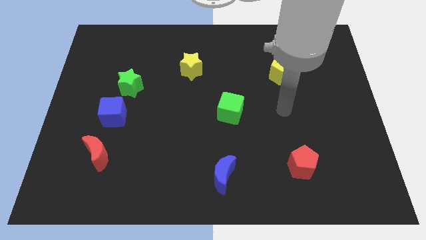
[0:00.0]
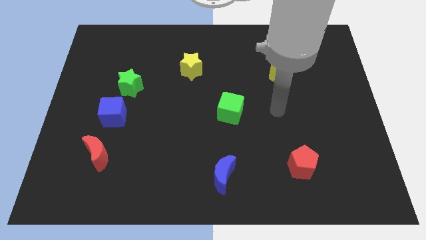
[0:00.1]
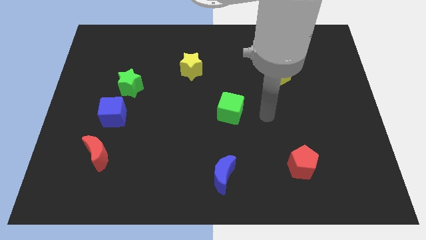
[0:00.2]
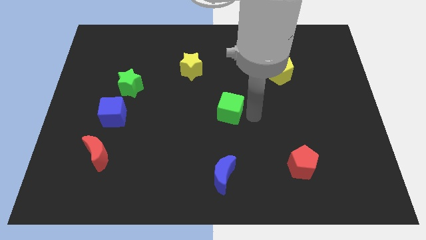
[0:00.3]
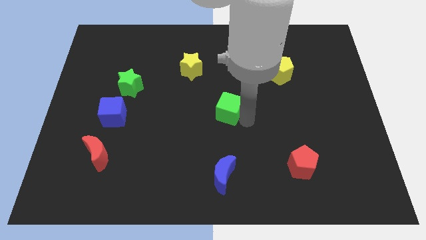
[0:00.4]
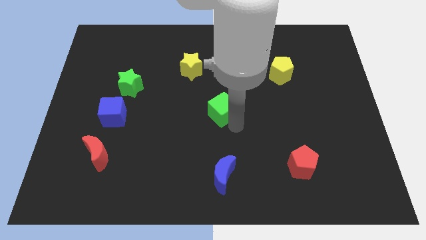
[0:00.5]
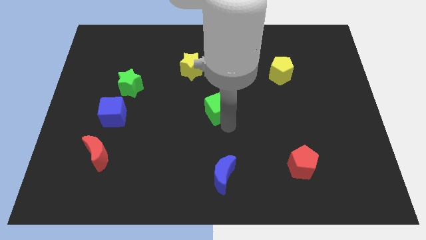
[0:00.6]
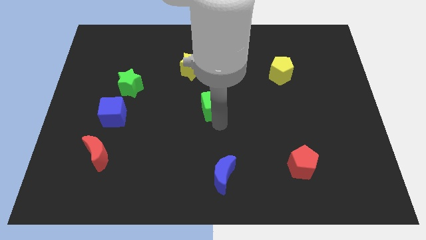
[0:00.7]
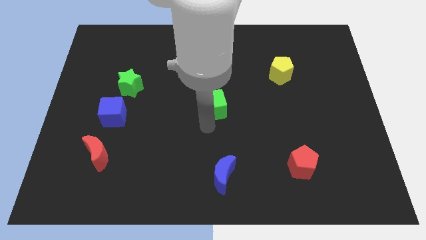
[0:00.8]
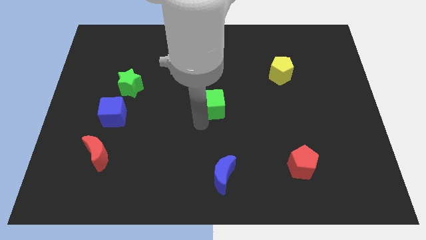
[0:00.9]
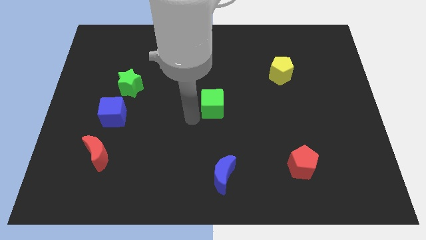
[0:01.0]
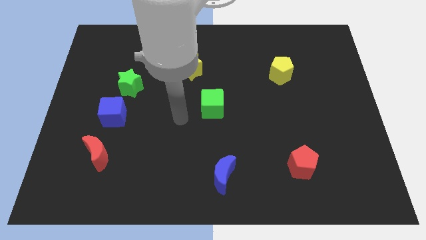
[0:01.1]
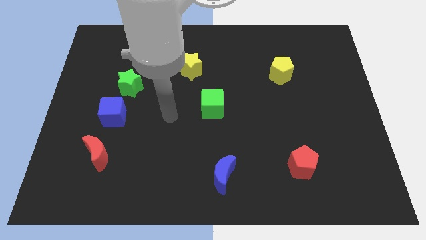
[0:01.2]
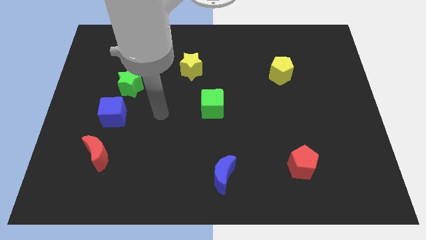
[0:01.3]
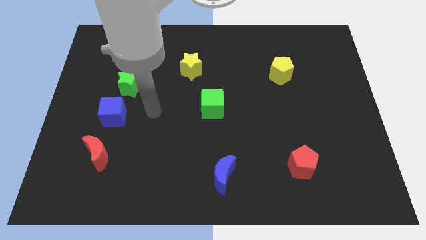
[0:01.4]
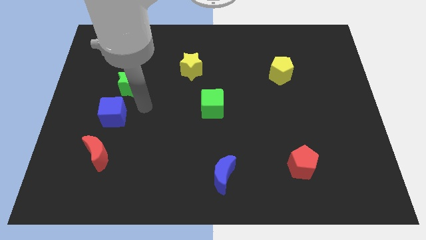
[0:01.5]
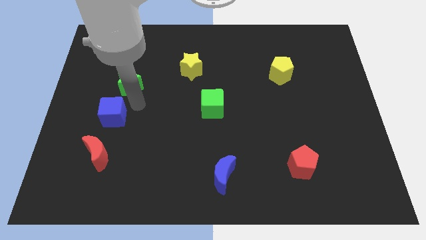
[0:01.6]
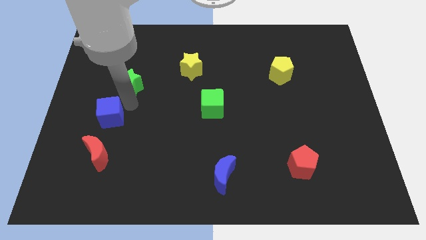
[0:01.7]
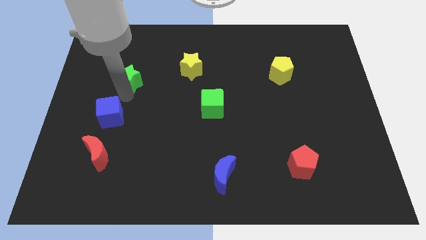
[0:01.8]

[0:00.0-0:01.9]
separate the blue cube from the green star

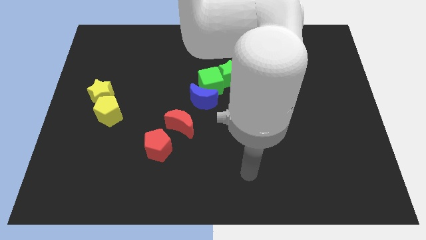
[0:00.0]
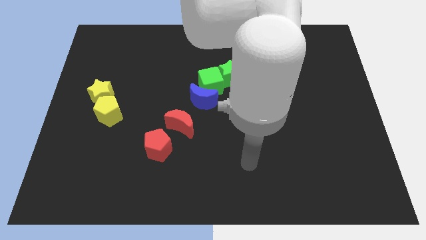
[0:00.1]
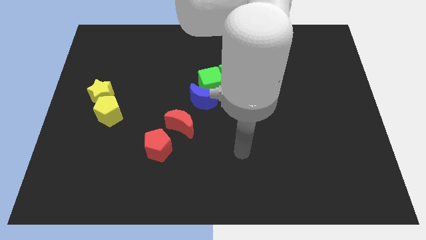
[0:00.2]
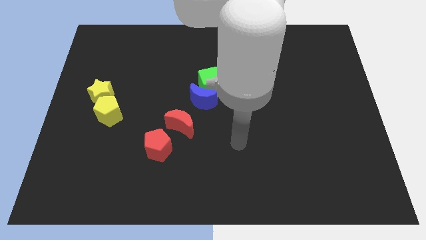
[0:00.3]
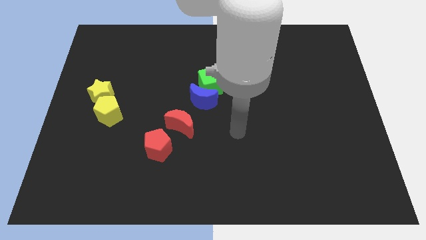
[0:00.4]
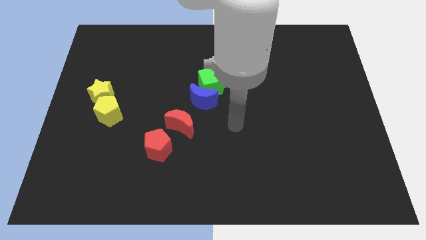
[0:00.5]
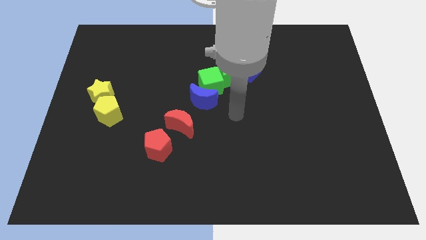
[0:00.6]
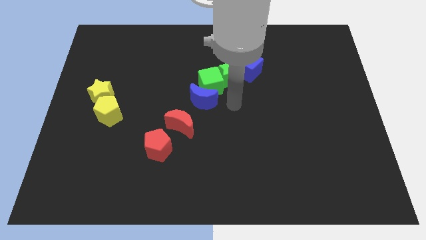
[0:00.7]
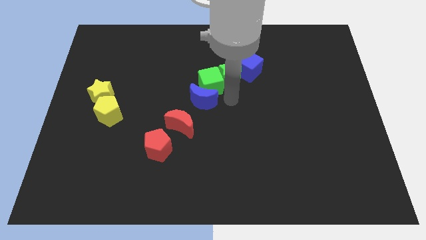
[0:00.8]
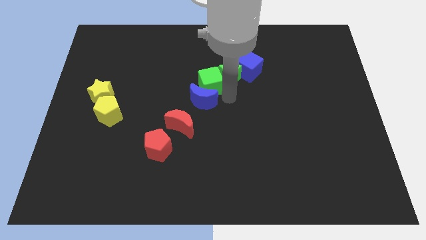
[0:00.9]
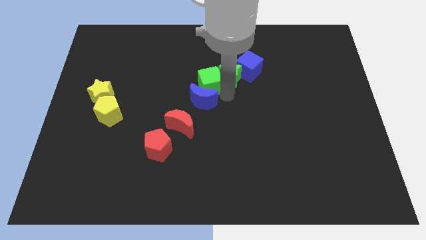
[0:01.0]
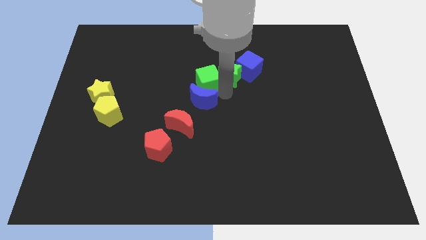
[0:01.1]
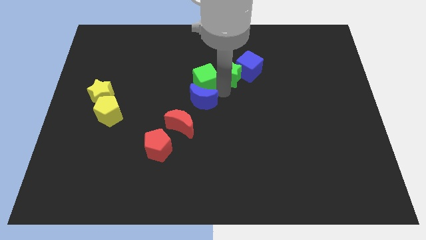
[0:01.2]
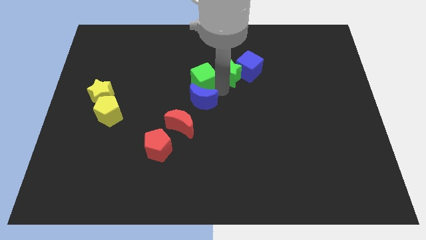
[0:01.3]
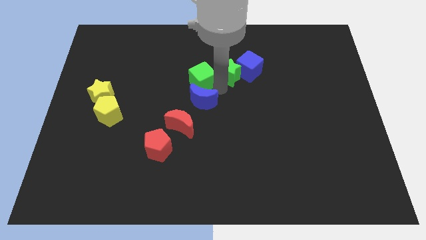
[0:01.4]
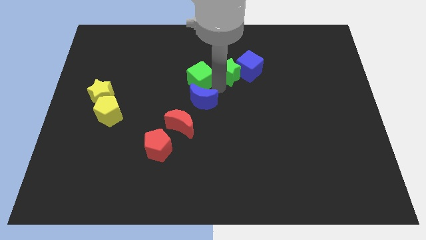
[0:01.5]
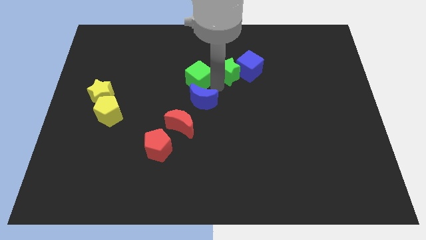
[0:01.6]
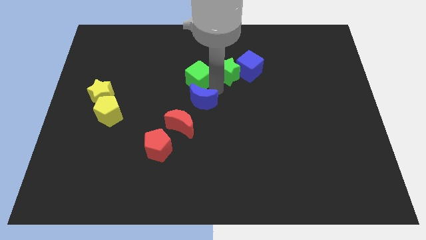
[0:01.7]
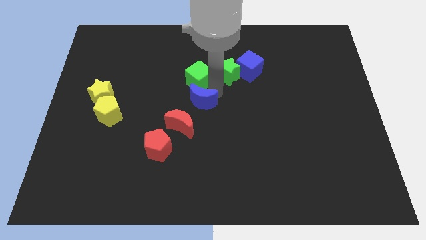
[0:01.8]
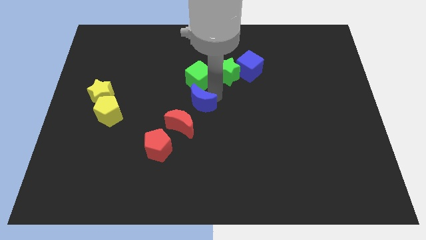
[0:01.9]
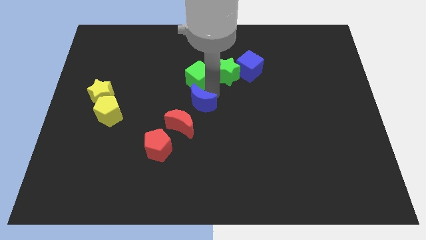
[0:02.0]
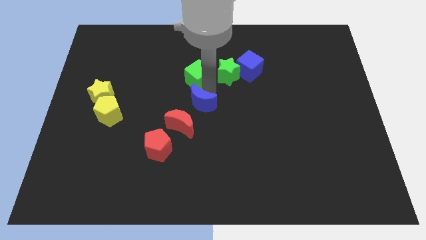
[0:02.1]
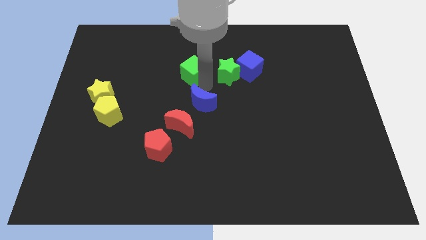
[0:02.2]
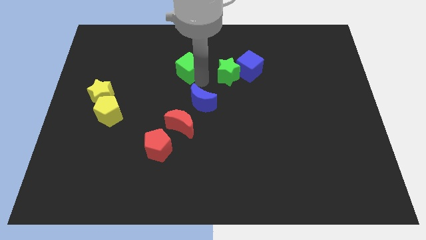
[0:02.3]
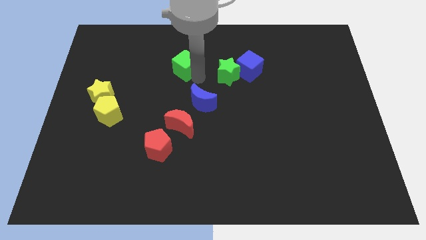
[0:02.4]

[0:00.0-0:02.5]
separate the green cube from the blue moon and green star

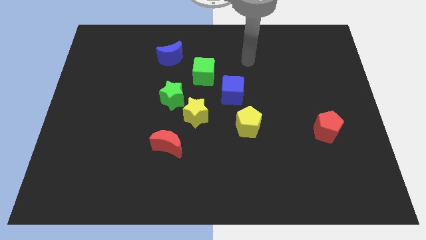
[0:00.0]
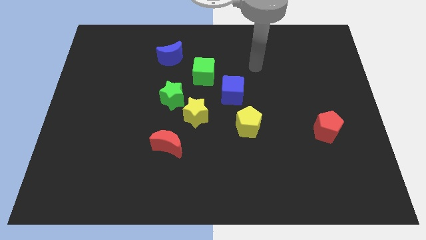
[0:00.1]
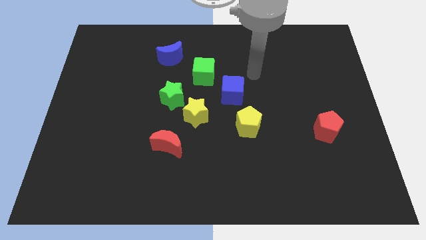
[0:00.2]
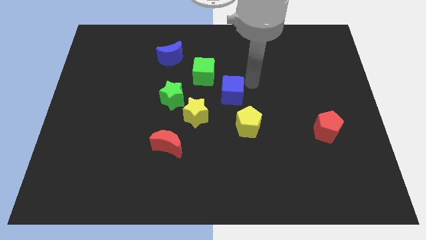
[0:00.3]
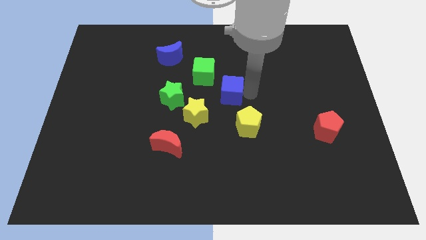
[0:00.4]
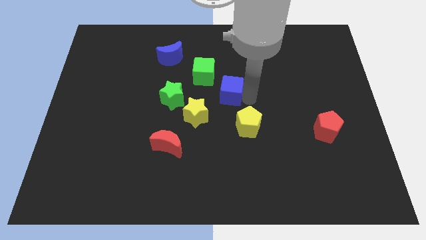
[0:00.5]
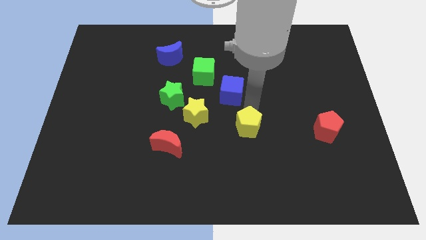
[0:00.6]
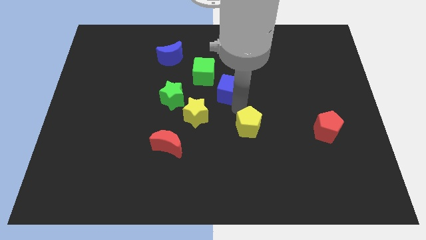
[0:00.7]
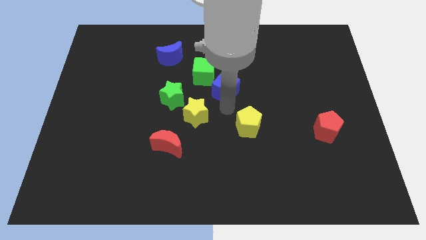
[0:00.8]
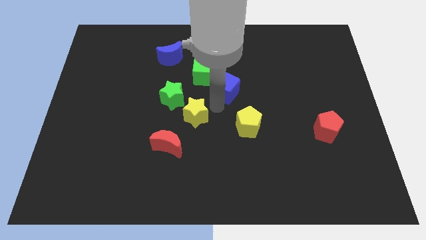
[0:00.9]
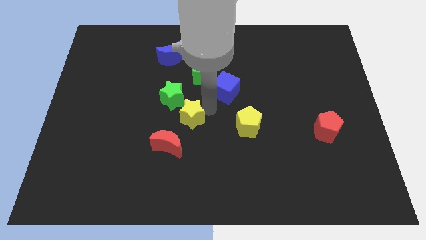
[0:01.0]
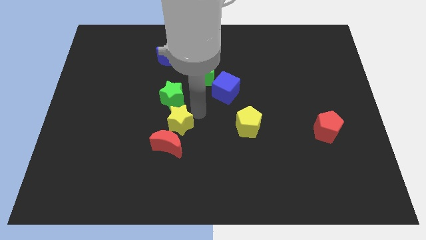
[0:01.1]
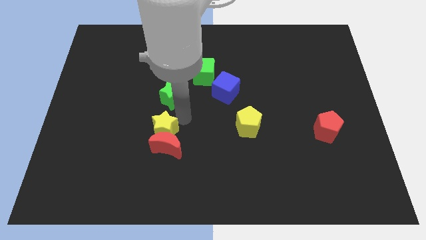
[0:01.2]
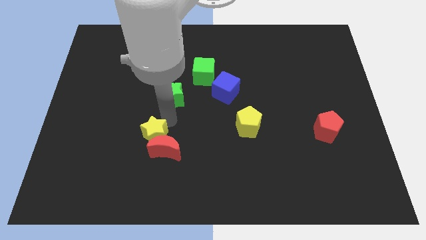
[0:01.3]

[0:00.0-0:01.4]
separate the green star from the yellow star

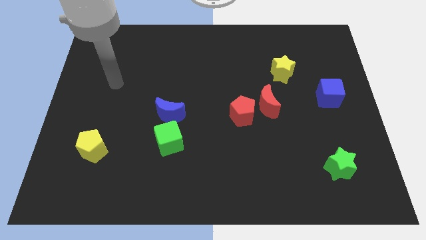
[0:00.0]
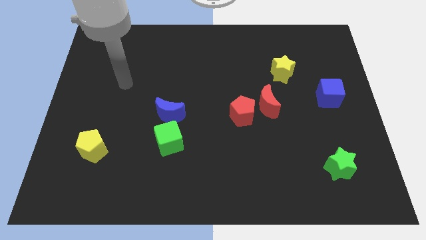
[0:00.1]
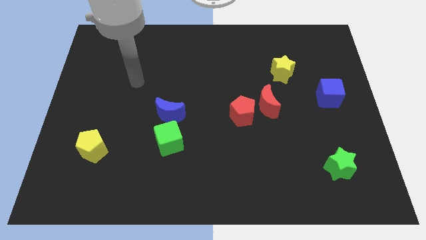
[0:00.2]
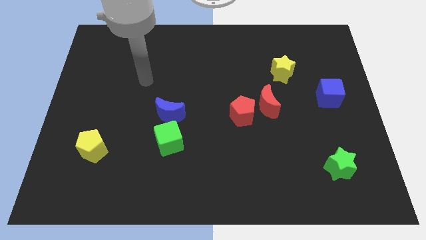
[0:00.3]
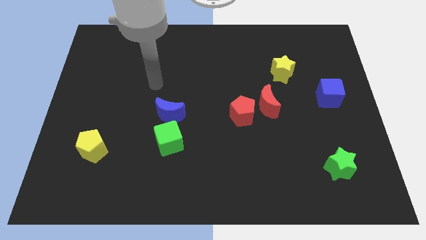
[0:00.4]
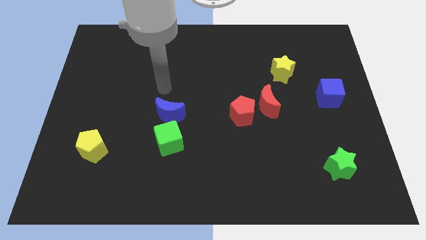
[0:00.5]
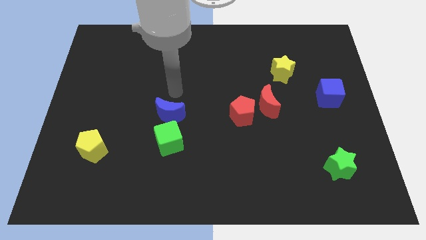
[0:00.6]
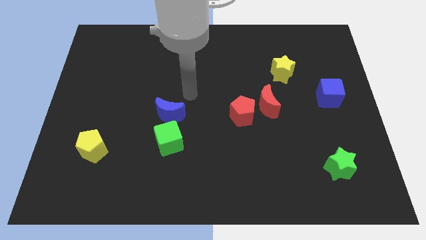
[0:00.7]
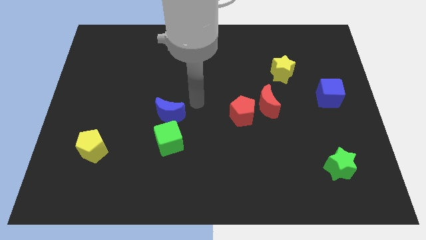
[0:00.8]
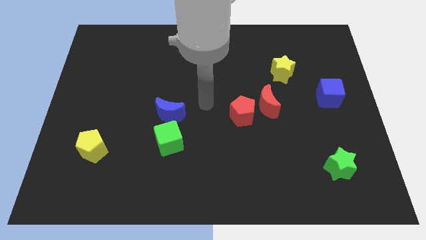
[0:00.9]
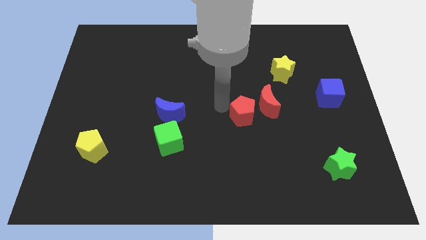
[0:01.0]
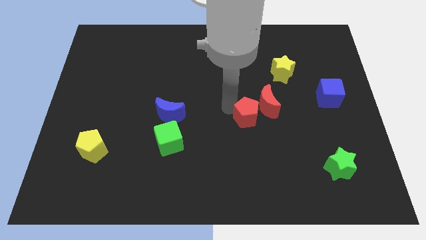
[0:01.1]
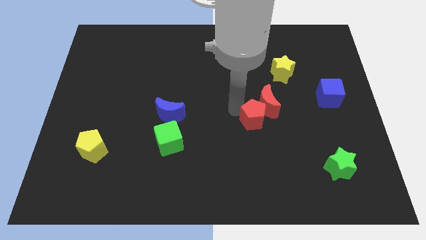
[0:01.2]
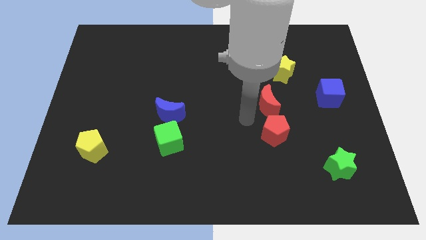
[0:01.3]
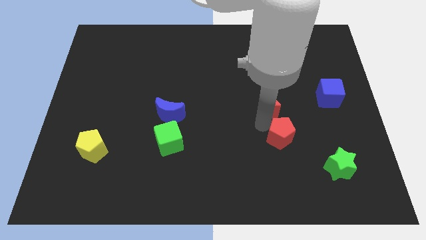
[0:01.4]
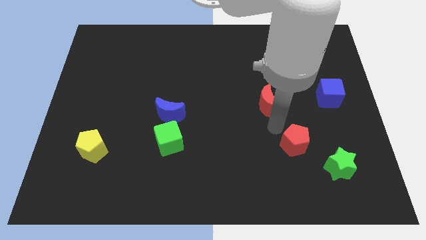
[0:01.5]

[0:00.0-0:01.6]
separate the red moon from the red pentagon

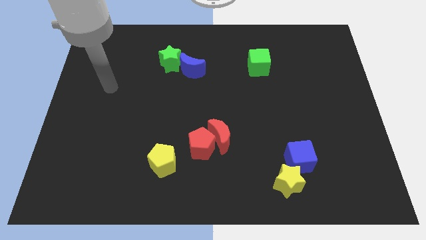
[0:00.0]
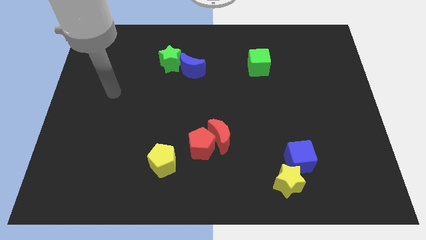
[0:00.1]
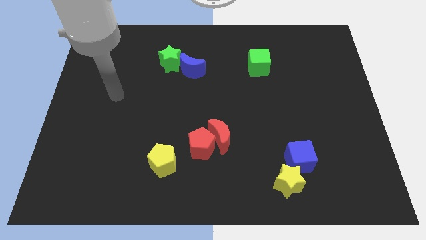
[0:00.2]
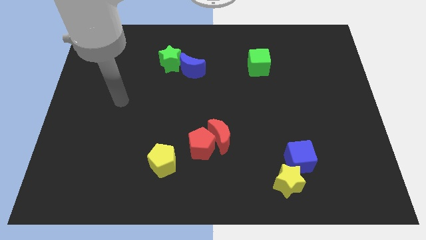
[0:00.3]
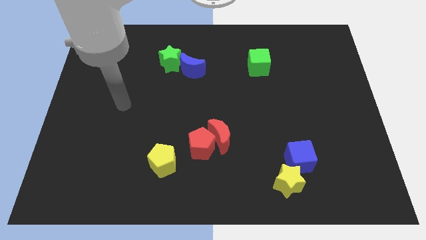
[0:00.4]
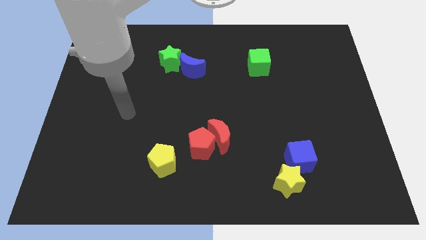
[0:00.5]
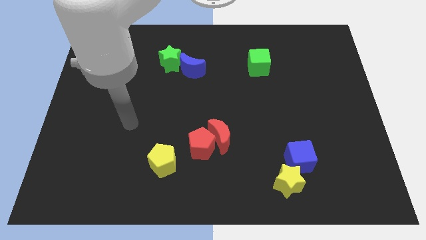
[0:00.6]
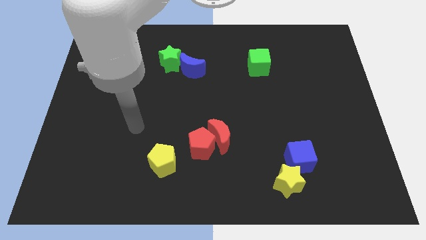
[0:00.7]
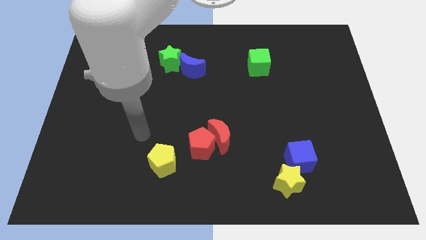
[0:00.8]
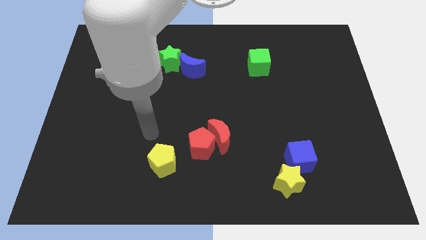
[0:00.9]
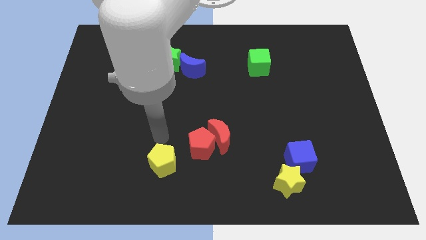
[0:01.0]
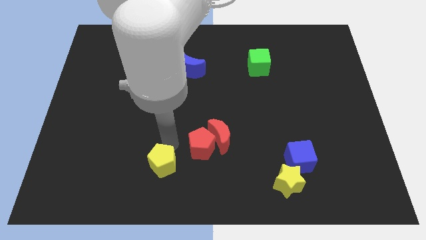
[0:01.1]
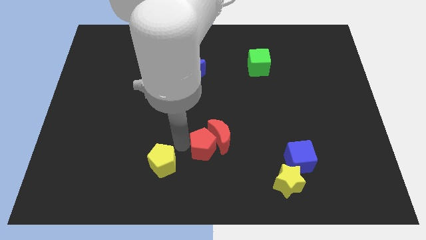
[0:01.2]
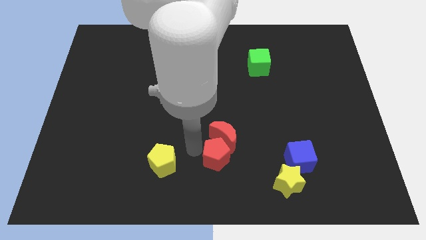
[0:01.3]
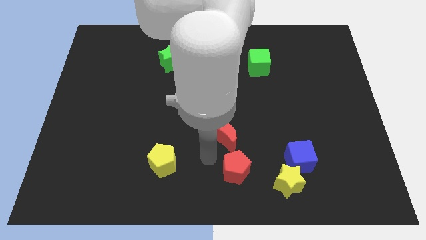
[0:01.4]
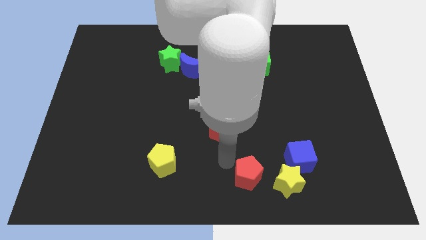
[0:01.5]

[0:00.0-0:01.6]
pull the red moon apart from the red pentagon

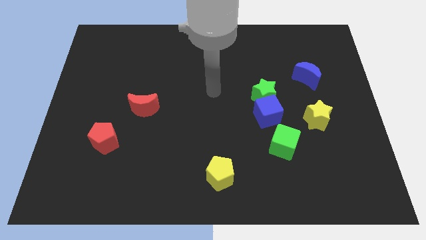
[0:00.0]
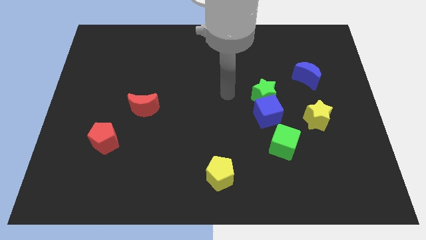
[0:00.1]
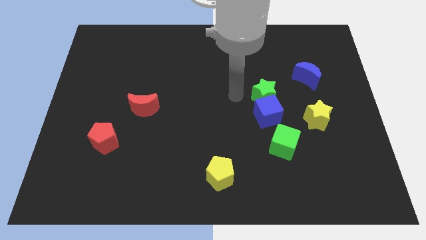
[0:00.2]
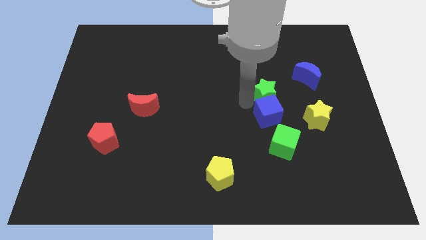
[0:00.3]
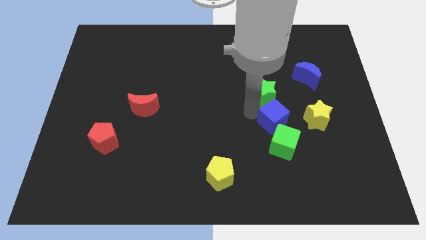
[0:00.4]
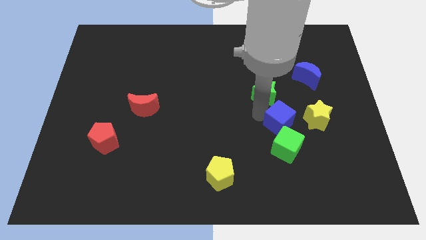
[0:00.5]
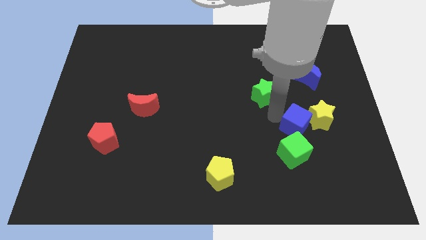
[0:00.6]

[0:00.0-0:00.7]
separate the green star from the blue cube
